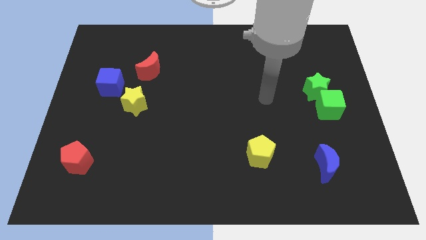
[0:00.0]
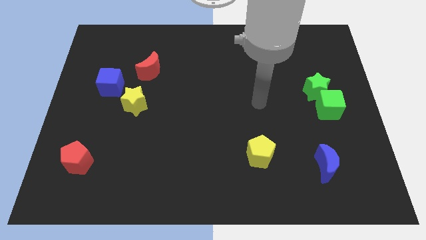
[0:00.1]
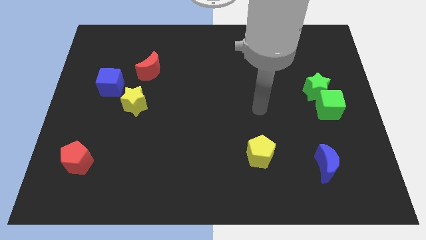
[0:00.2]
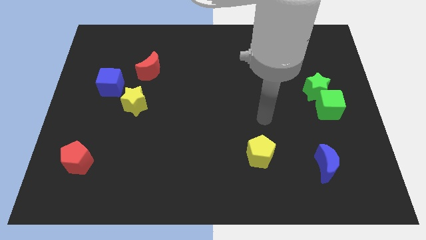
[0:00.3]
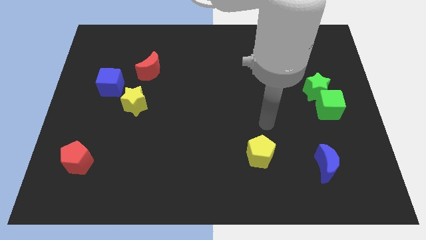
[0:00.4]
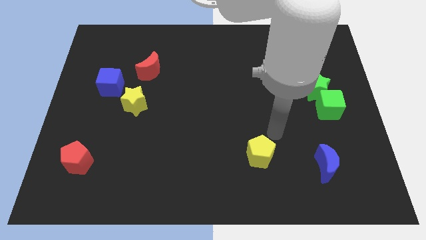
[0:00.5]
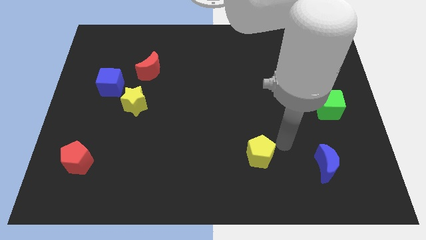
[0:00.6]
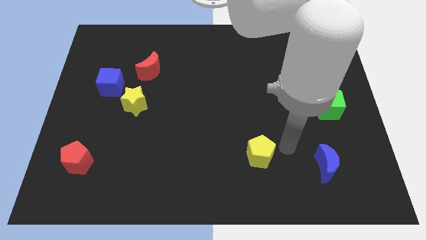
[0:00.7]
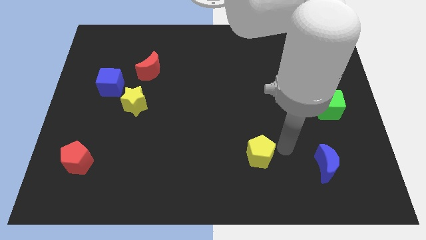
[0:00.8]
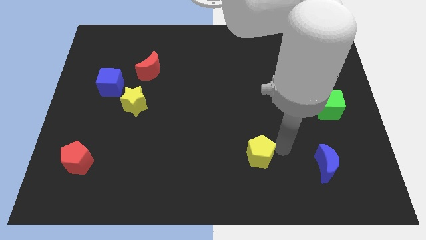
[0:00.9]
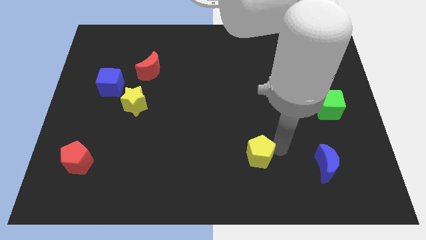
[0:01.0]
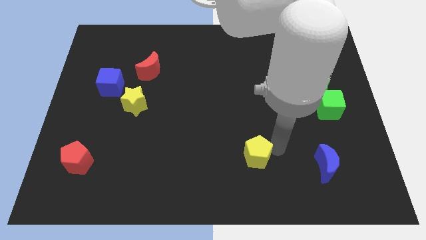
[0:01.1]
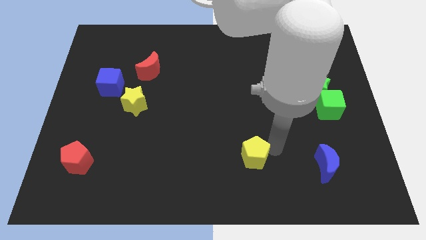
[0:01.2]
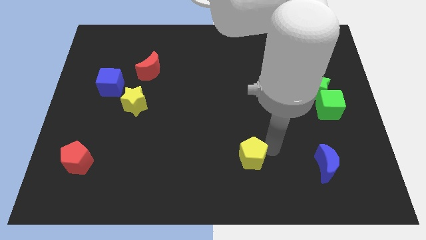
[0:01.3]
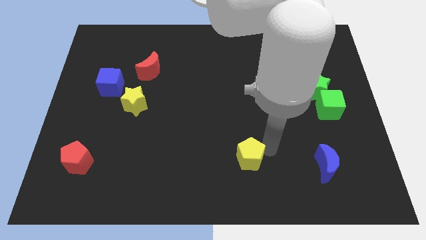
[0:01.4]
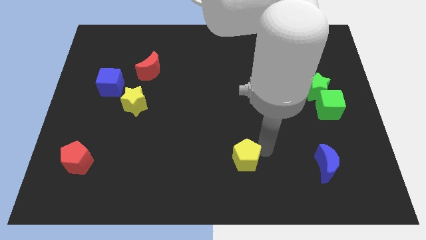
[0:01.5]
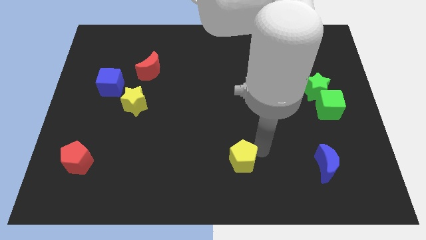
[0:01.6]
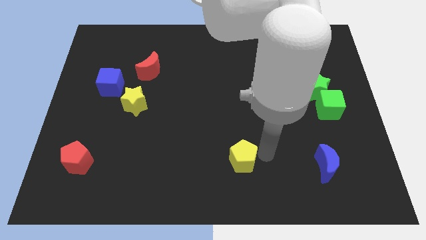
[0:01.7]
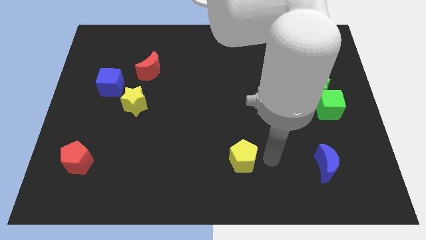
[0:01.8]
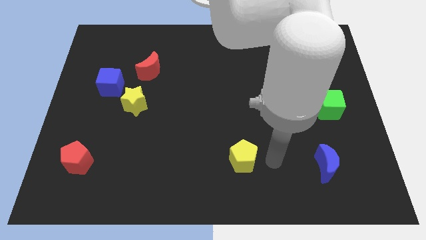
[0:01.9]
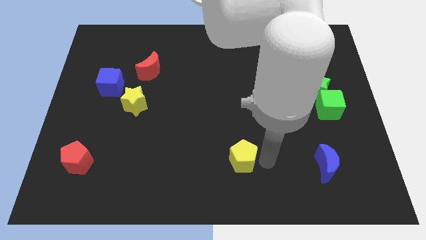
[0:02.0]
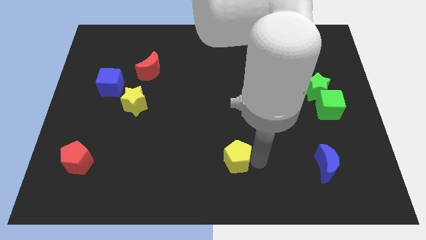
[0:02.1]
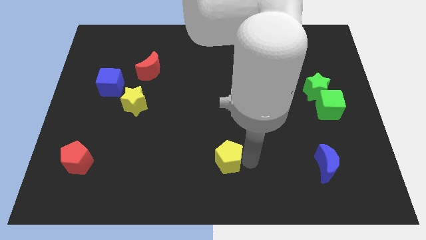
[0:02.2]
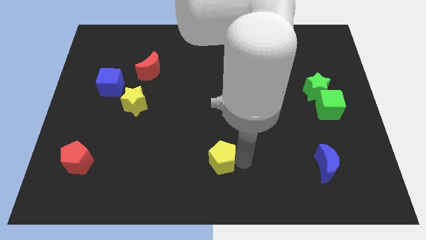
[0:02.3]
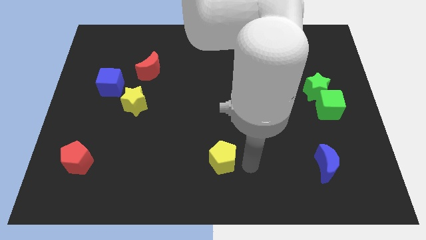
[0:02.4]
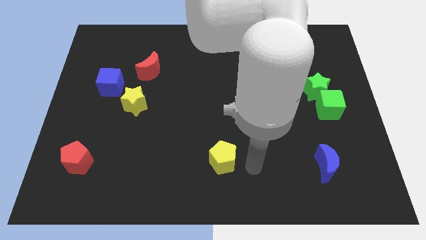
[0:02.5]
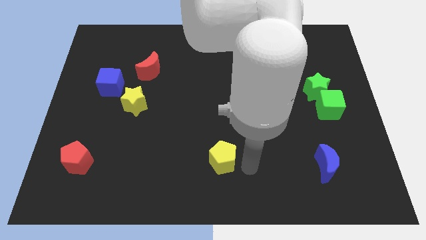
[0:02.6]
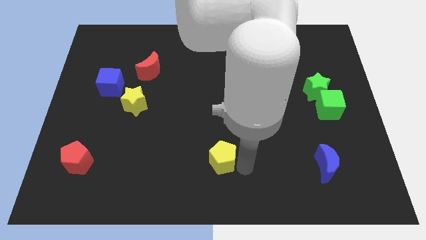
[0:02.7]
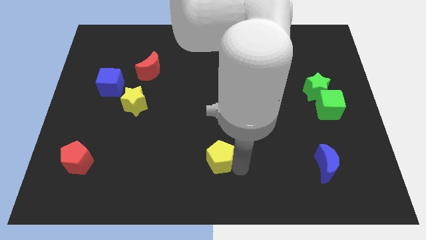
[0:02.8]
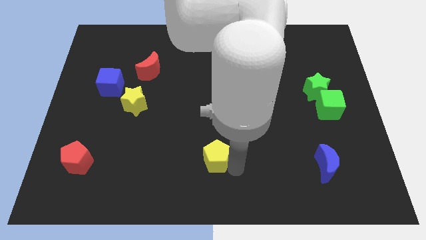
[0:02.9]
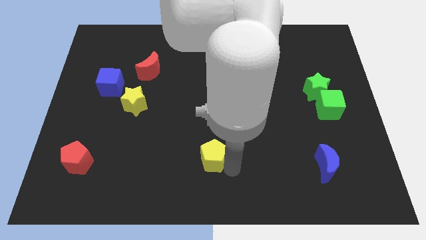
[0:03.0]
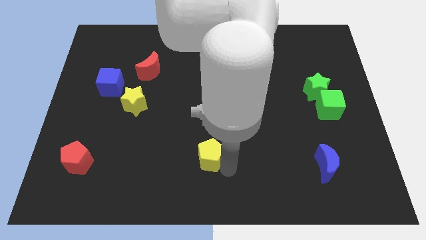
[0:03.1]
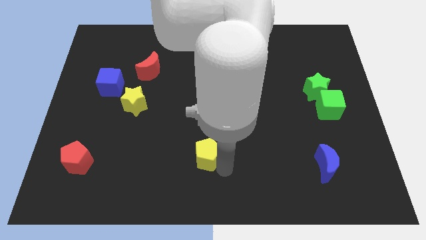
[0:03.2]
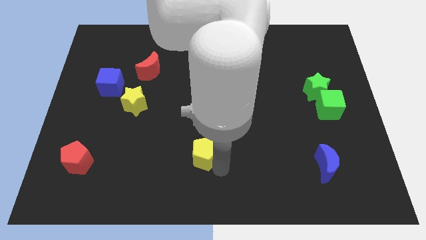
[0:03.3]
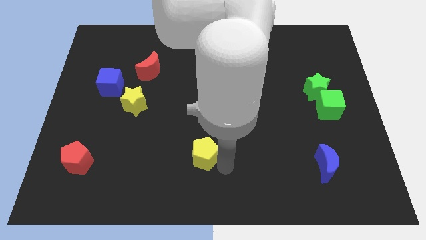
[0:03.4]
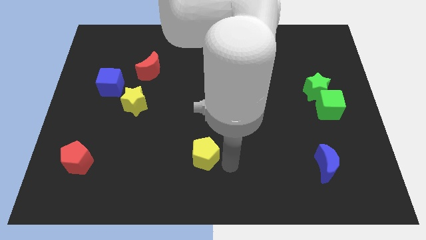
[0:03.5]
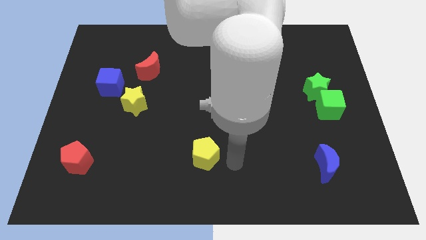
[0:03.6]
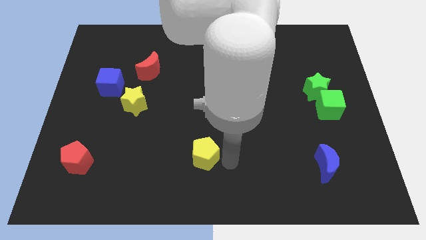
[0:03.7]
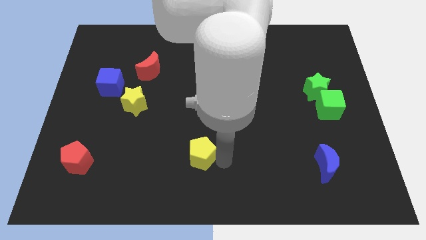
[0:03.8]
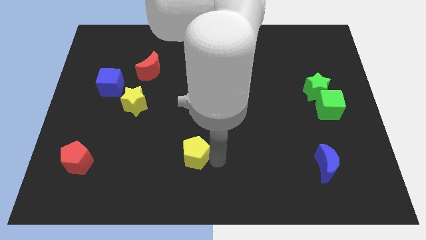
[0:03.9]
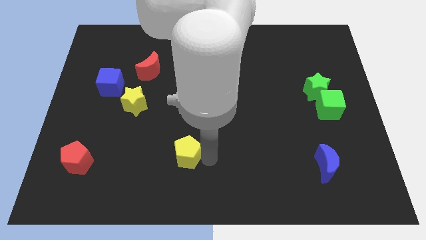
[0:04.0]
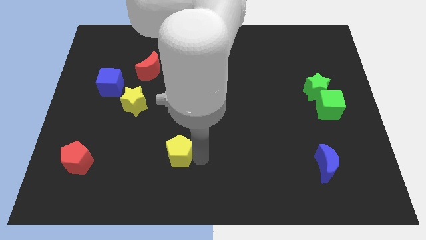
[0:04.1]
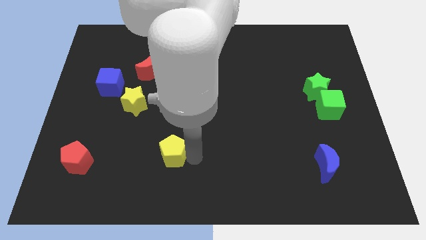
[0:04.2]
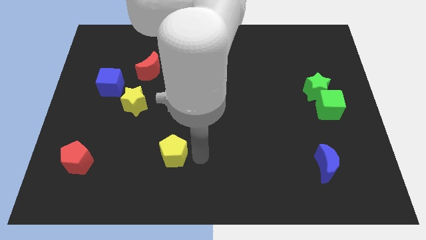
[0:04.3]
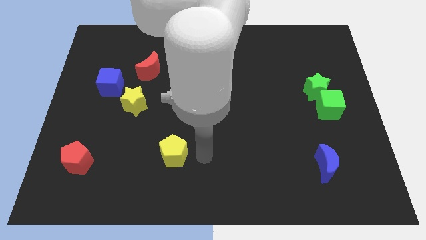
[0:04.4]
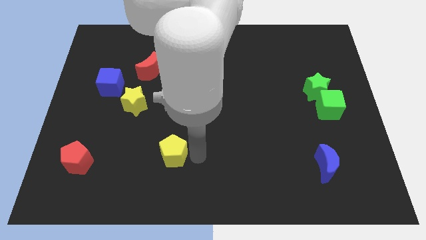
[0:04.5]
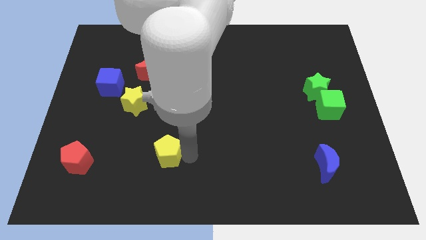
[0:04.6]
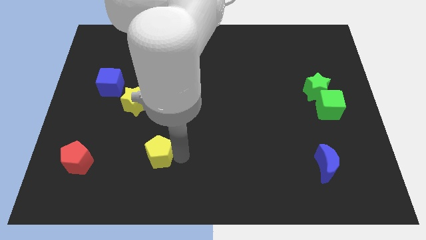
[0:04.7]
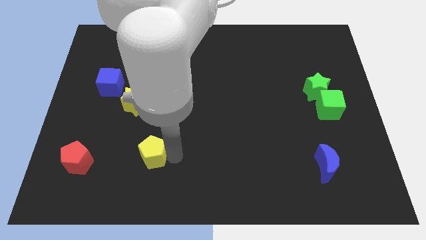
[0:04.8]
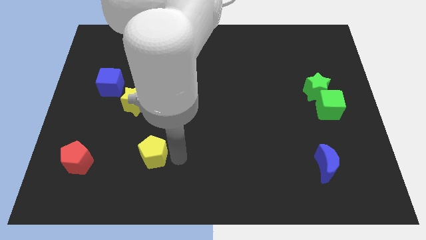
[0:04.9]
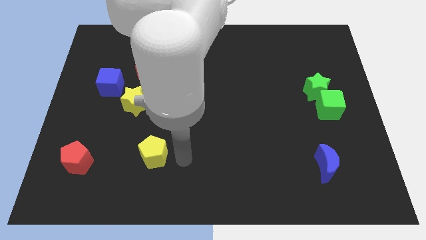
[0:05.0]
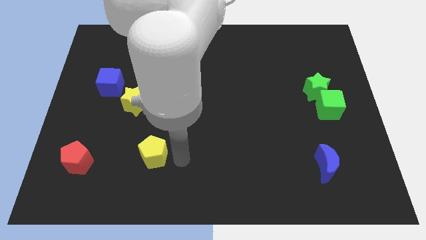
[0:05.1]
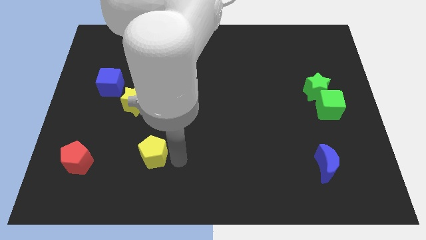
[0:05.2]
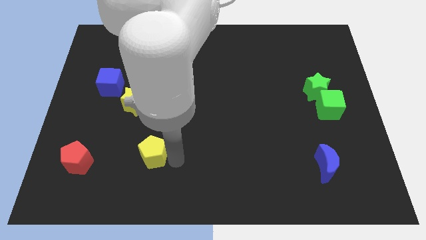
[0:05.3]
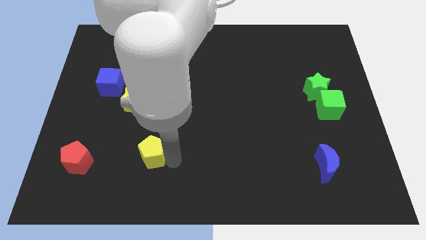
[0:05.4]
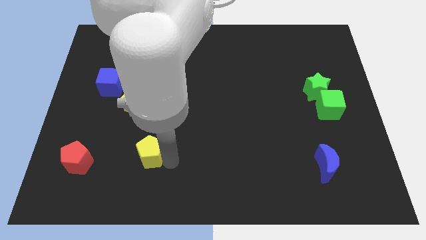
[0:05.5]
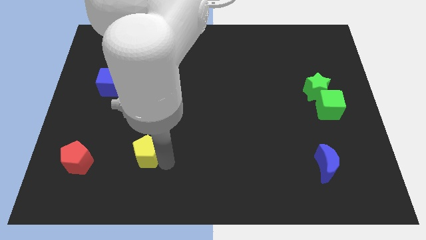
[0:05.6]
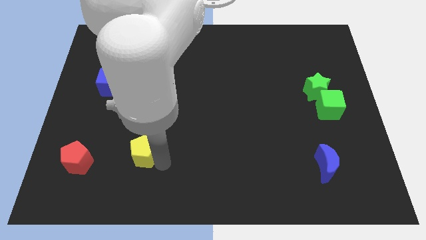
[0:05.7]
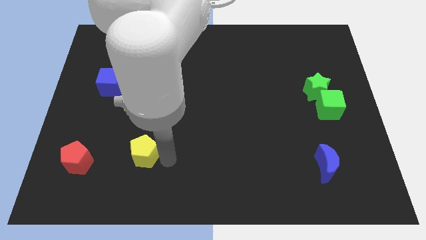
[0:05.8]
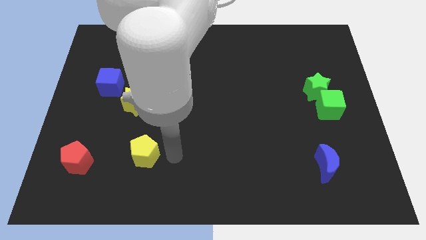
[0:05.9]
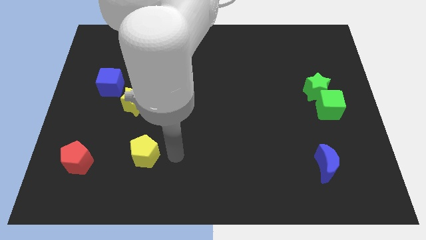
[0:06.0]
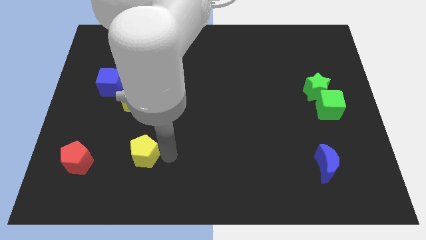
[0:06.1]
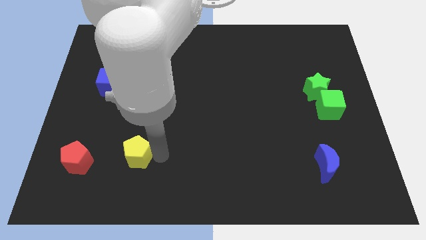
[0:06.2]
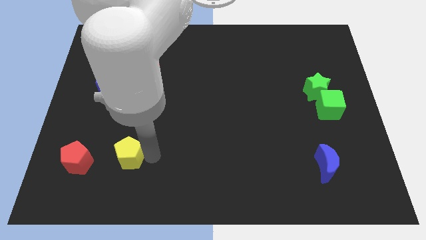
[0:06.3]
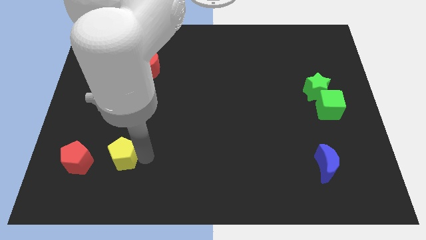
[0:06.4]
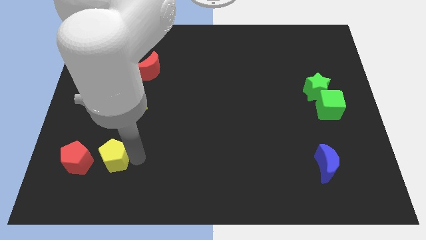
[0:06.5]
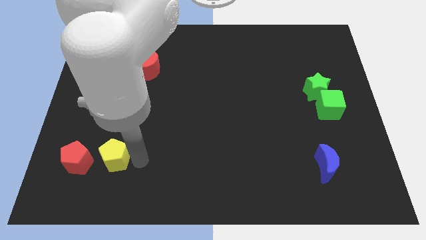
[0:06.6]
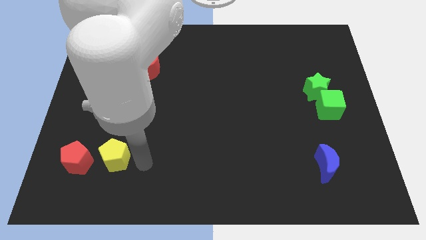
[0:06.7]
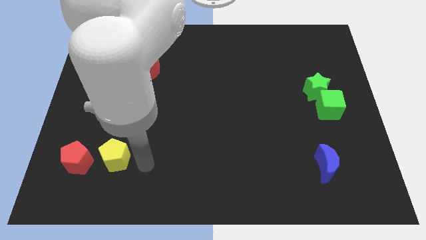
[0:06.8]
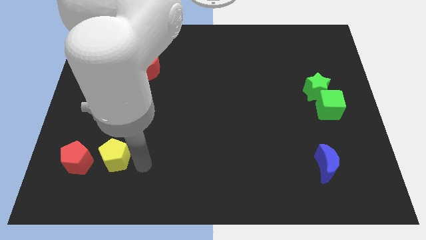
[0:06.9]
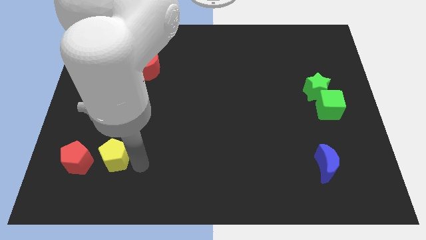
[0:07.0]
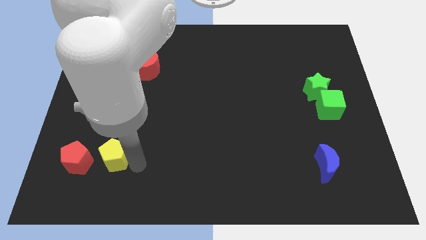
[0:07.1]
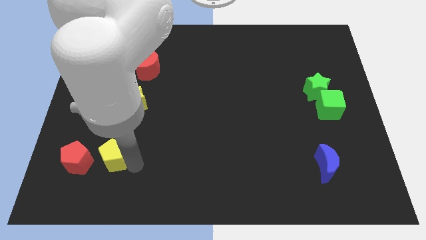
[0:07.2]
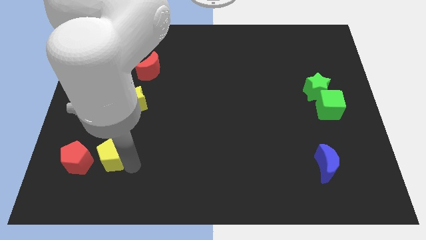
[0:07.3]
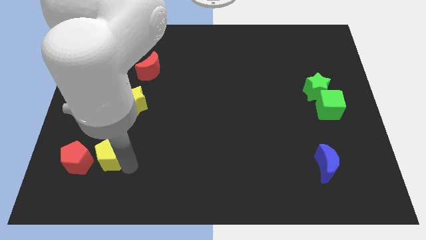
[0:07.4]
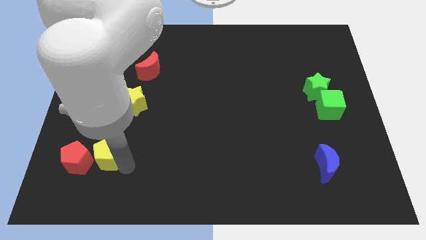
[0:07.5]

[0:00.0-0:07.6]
push the yellow pentagon to the red pentagon
